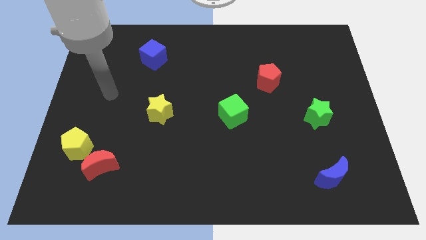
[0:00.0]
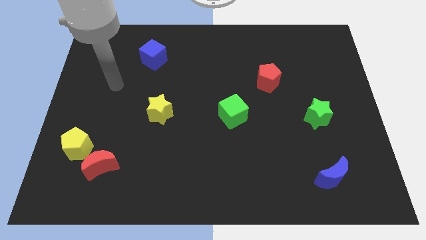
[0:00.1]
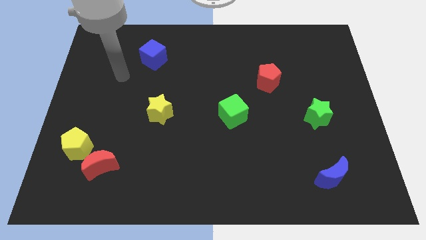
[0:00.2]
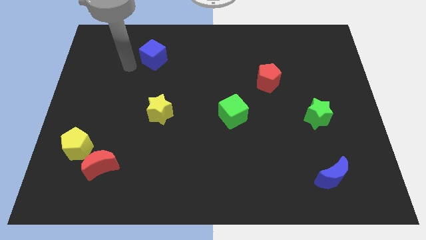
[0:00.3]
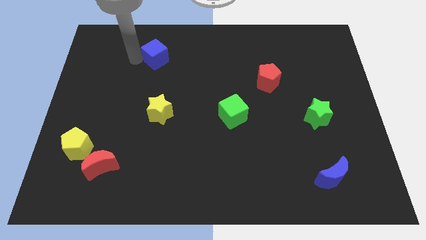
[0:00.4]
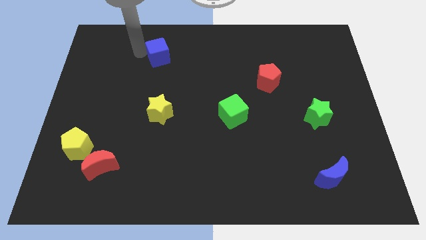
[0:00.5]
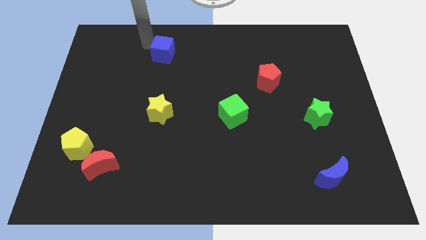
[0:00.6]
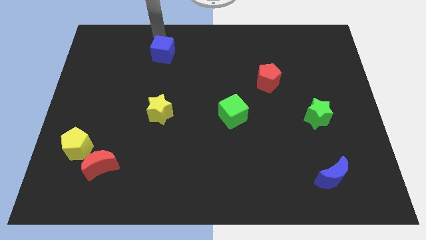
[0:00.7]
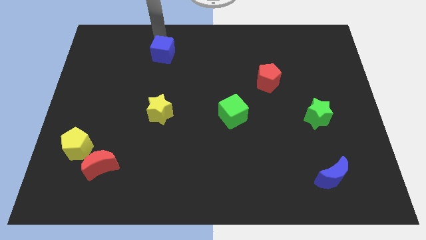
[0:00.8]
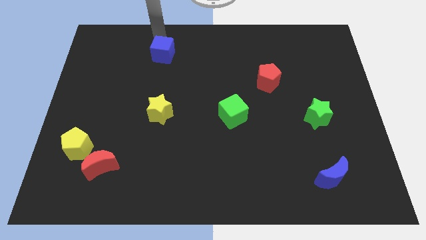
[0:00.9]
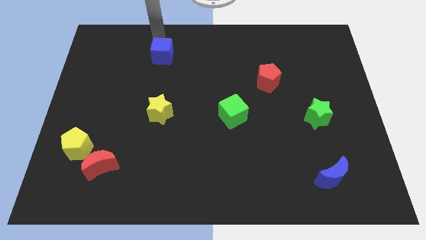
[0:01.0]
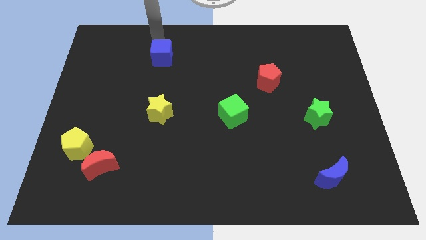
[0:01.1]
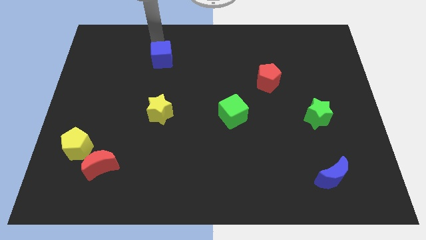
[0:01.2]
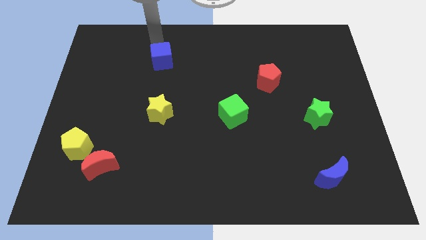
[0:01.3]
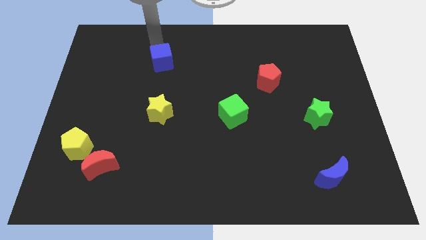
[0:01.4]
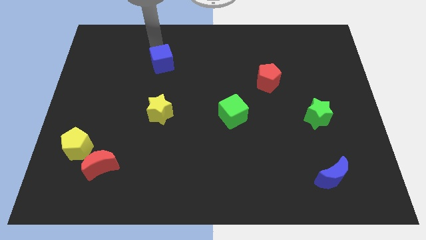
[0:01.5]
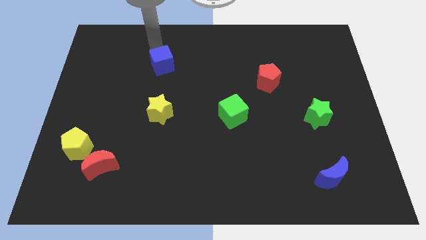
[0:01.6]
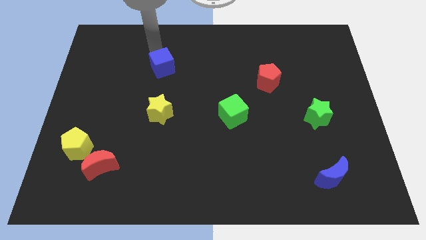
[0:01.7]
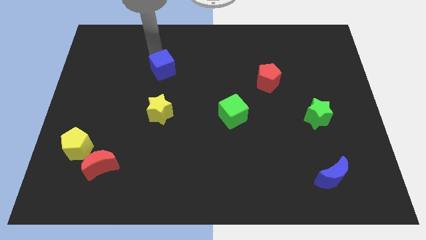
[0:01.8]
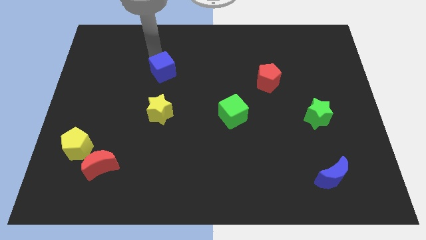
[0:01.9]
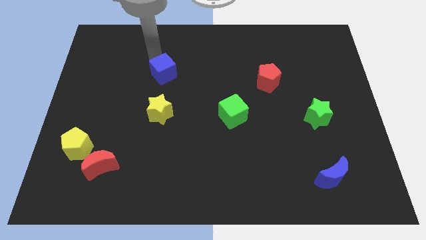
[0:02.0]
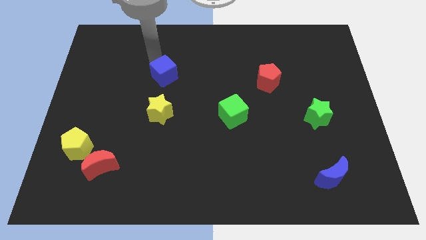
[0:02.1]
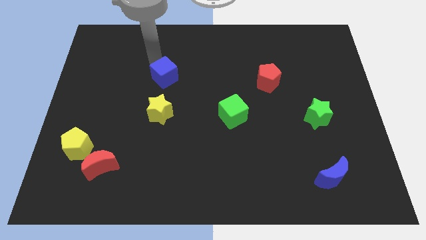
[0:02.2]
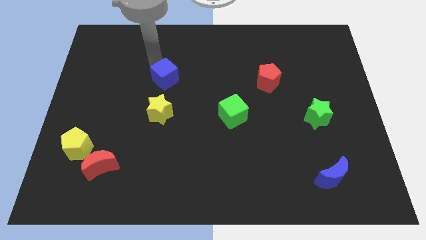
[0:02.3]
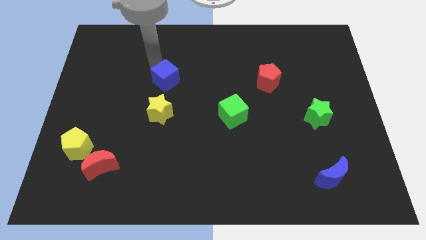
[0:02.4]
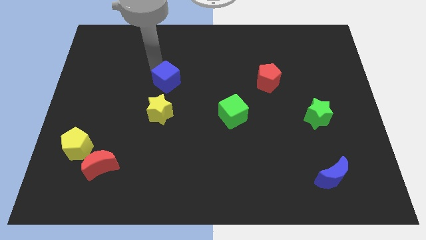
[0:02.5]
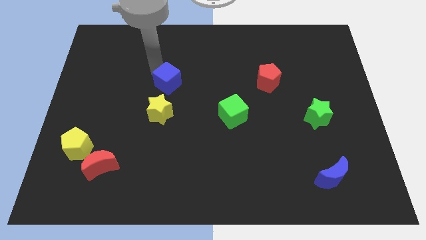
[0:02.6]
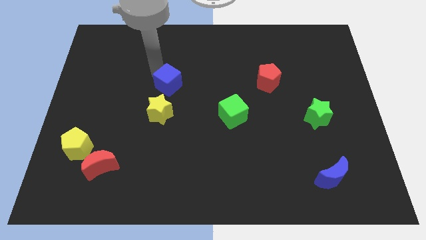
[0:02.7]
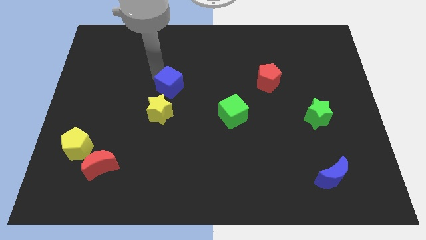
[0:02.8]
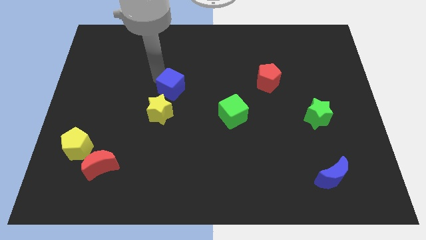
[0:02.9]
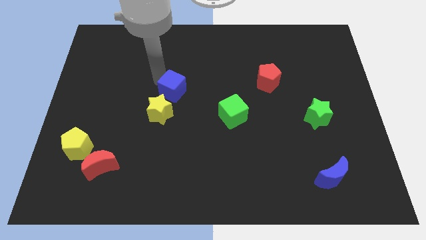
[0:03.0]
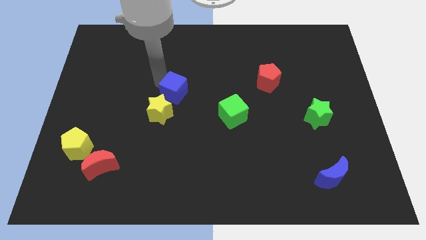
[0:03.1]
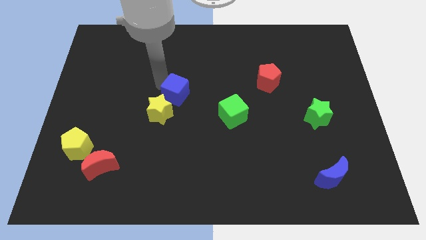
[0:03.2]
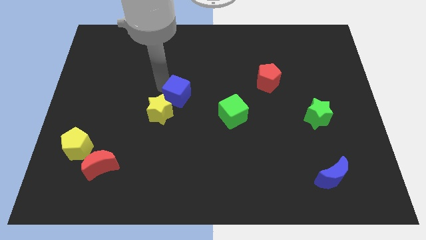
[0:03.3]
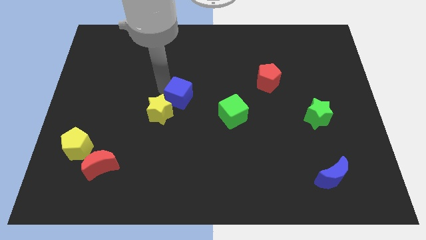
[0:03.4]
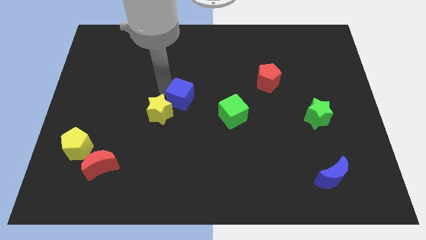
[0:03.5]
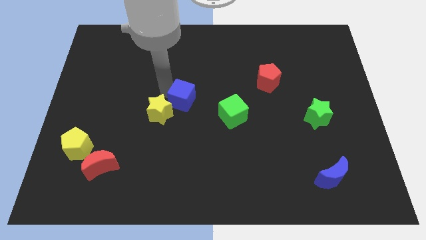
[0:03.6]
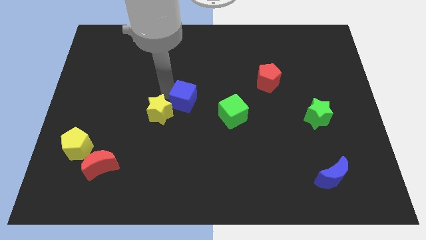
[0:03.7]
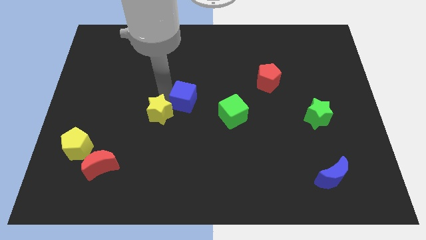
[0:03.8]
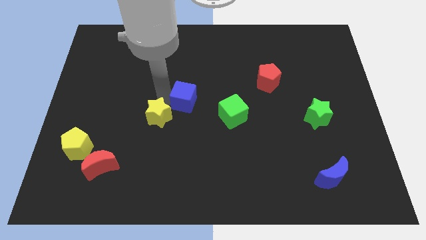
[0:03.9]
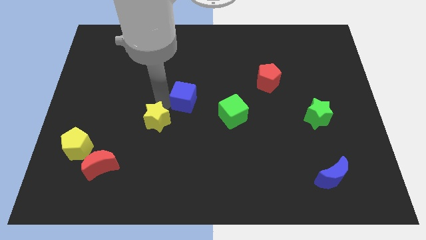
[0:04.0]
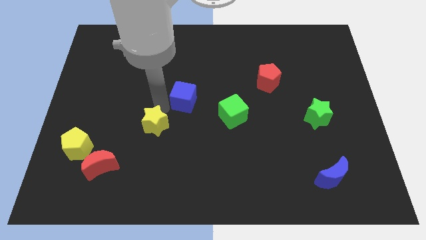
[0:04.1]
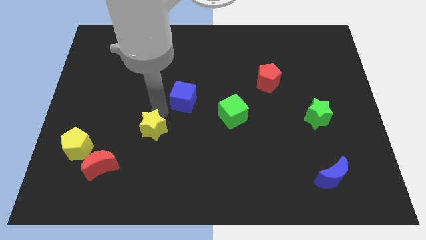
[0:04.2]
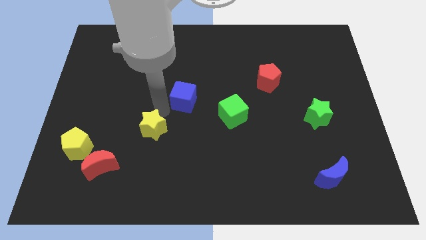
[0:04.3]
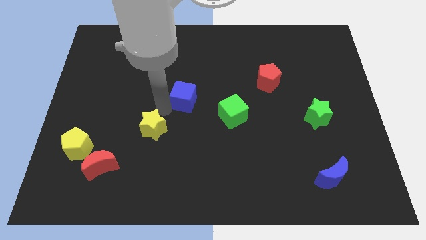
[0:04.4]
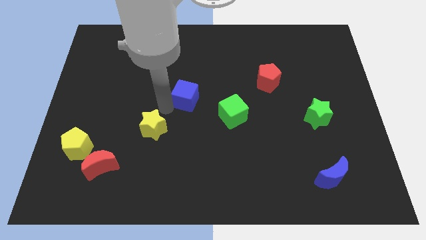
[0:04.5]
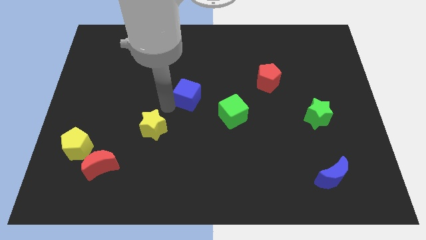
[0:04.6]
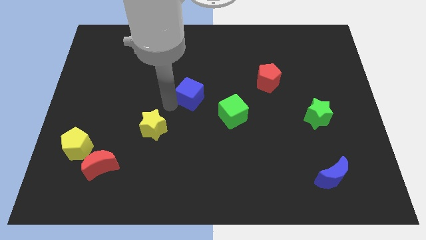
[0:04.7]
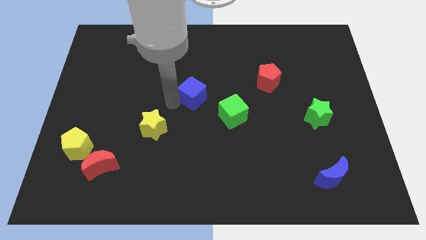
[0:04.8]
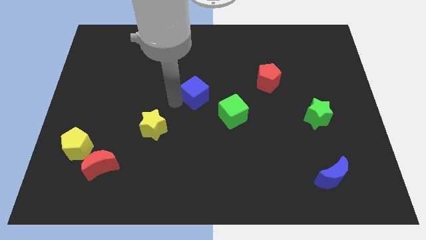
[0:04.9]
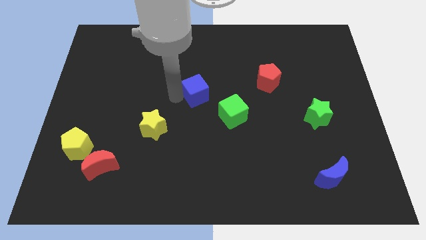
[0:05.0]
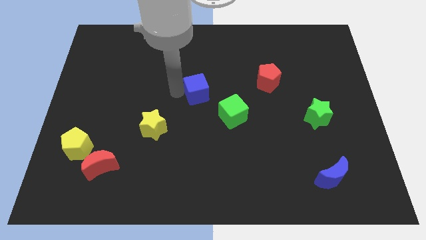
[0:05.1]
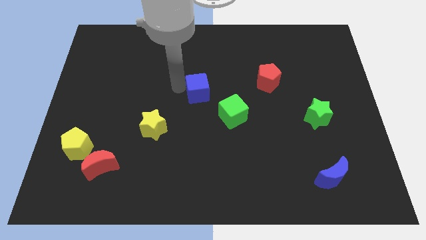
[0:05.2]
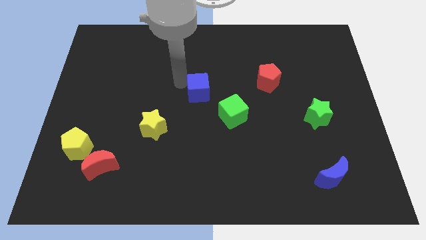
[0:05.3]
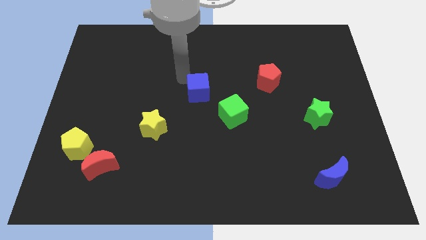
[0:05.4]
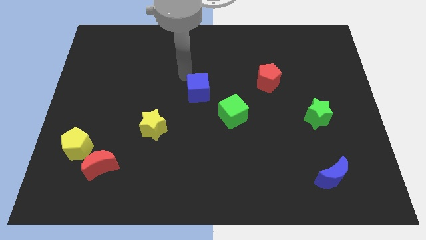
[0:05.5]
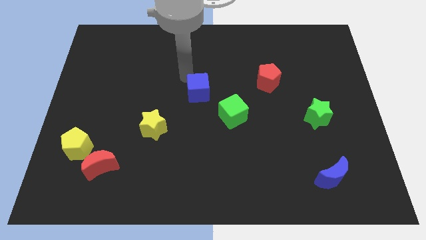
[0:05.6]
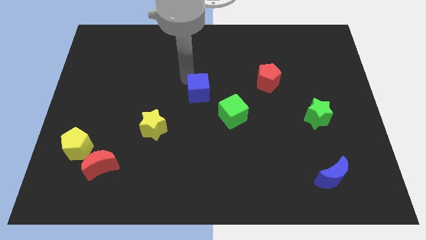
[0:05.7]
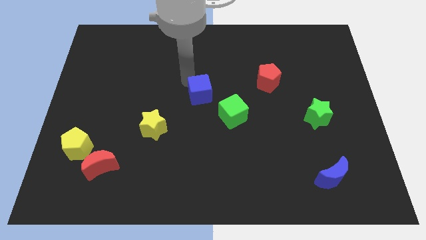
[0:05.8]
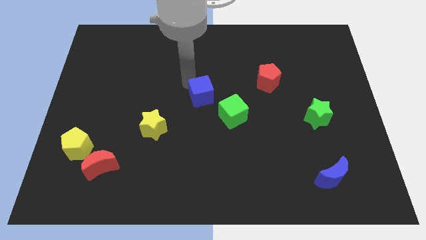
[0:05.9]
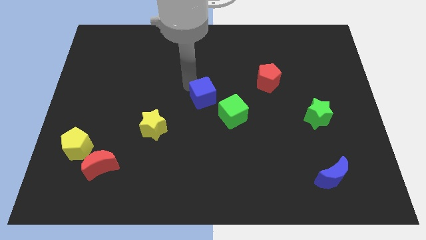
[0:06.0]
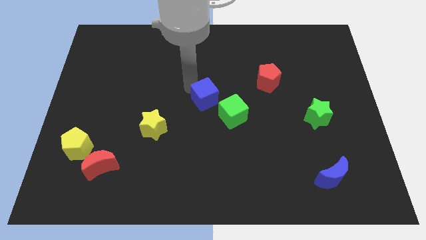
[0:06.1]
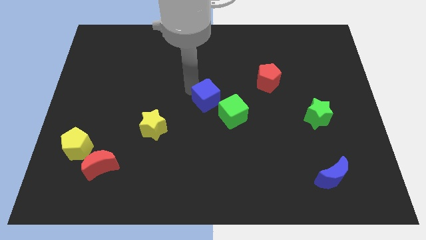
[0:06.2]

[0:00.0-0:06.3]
push the blue cube down and then to the right

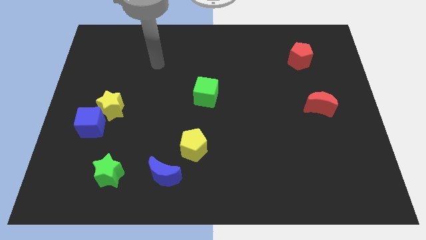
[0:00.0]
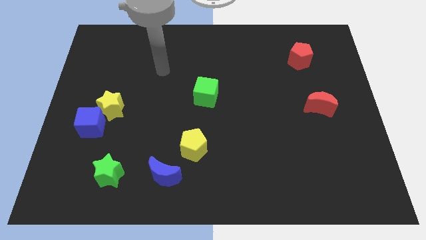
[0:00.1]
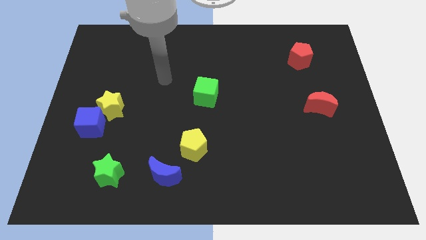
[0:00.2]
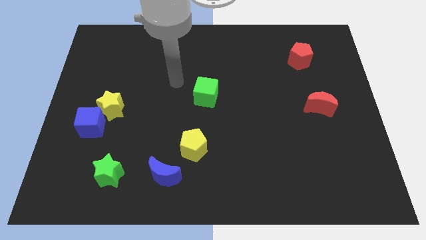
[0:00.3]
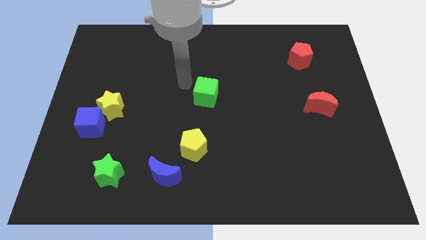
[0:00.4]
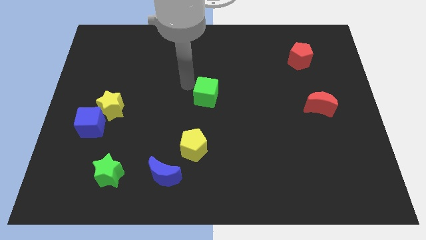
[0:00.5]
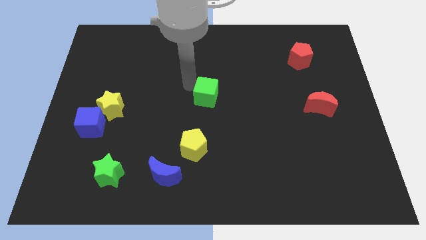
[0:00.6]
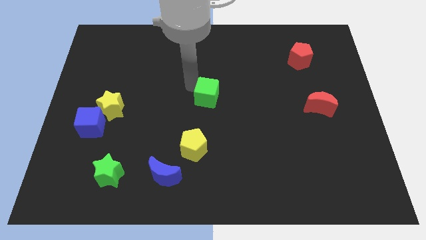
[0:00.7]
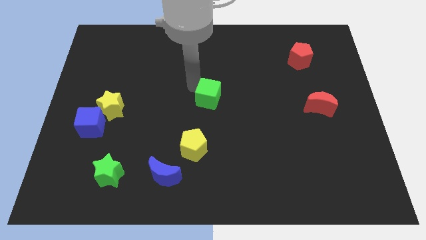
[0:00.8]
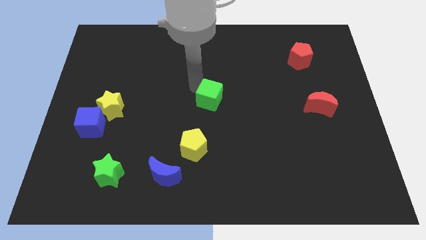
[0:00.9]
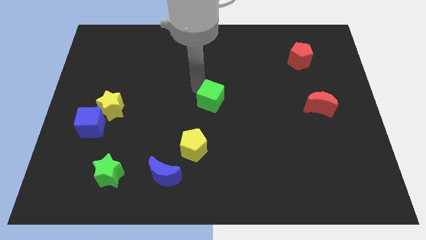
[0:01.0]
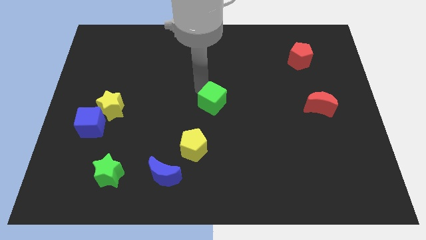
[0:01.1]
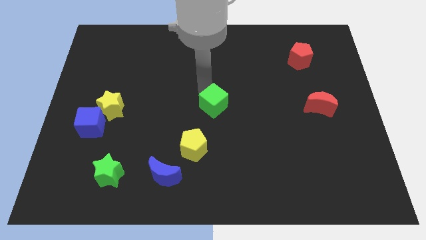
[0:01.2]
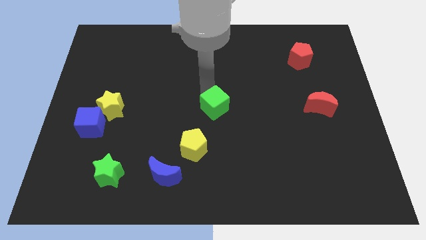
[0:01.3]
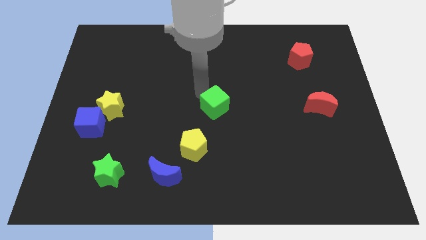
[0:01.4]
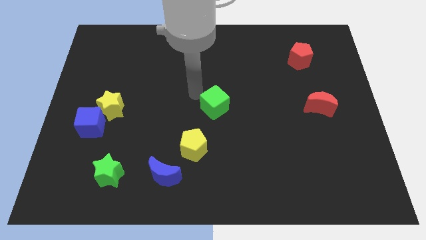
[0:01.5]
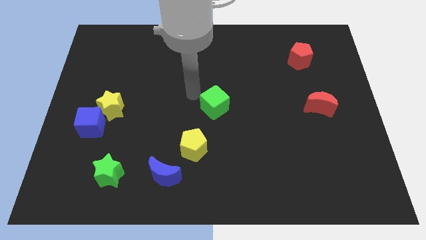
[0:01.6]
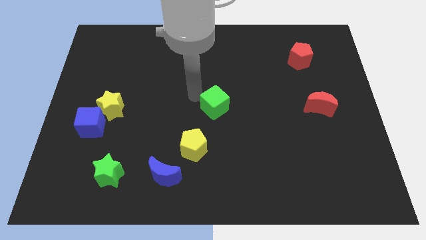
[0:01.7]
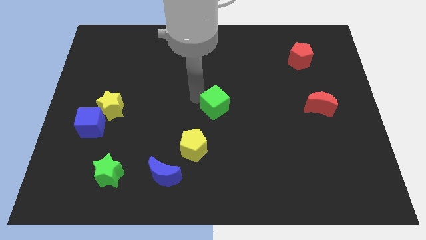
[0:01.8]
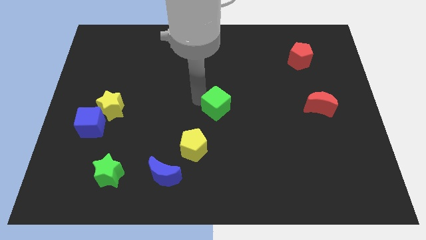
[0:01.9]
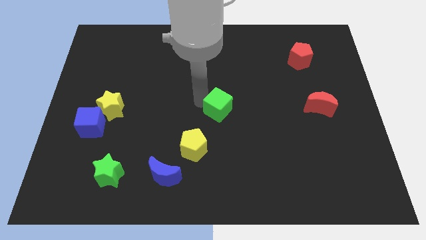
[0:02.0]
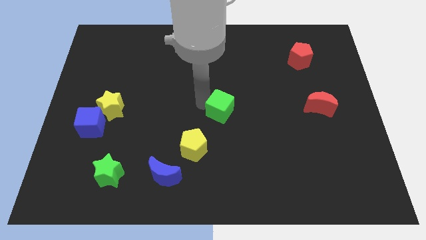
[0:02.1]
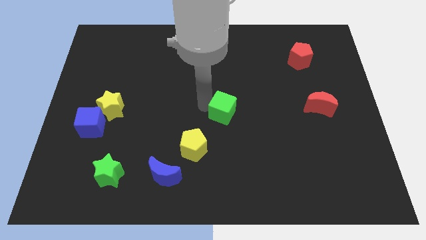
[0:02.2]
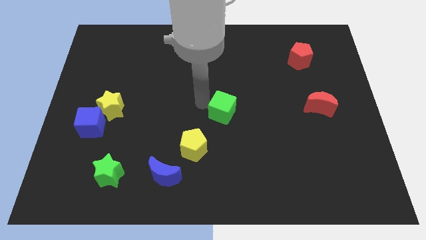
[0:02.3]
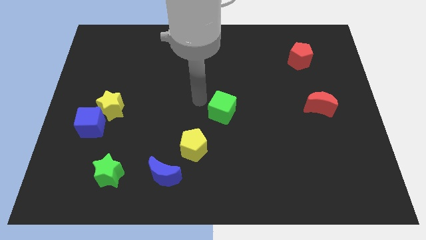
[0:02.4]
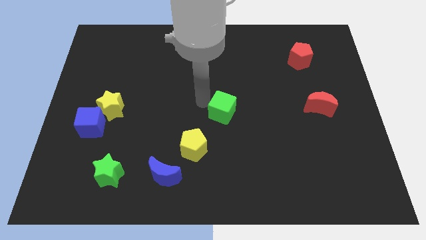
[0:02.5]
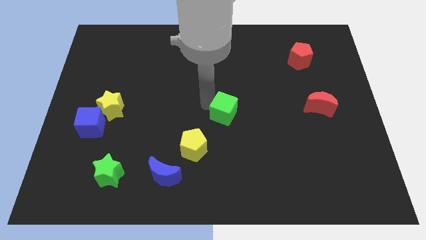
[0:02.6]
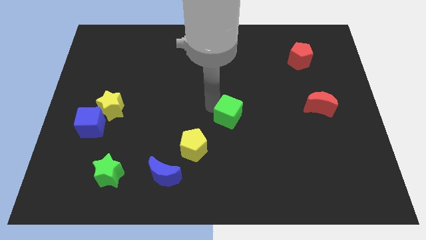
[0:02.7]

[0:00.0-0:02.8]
slide the green cube somewhat downwards and right diagonally
